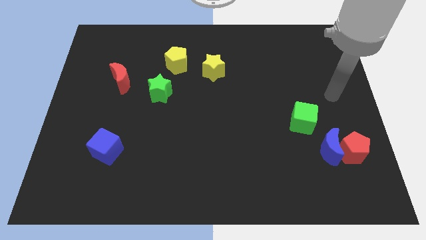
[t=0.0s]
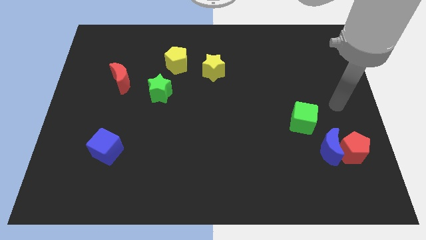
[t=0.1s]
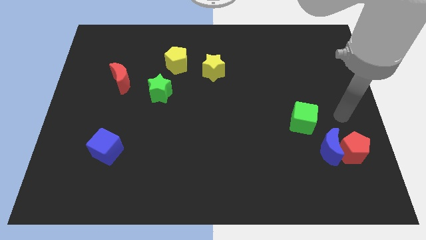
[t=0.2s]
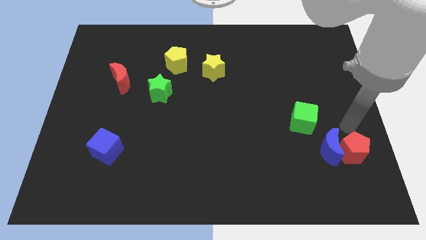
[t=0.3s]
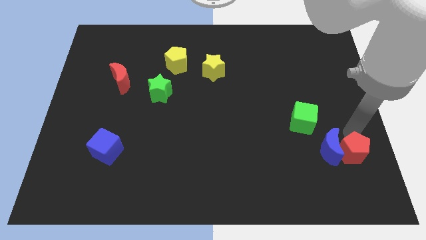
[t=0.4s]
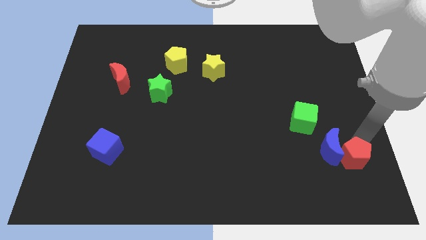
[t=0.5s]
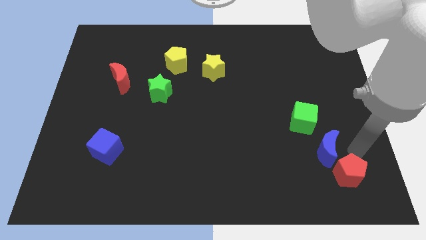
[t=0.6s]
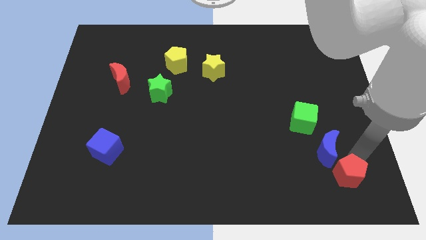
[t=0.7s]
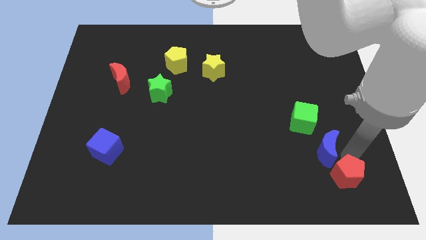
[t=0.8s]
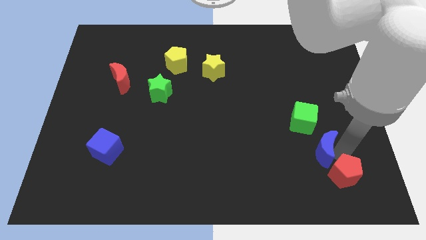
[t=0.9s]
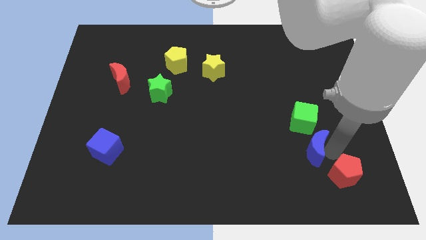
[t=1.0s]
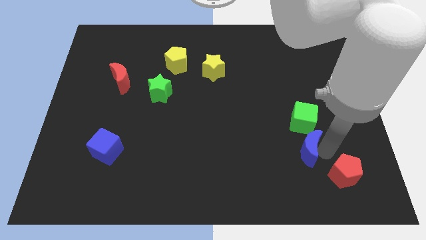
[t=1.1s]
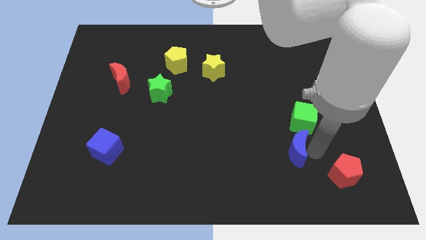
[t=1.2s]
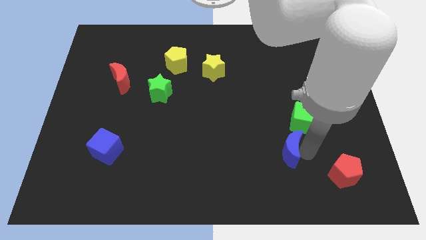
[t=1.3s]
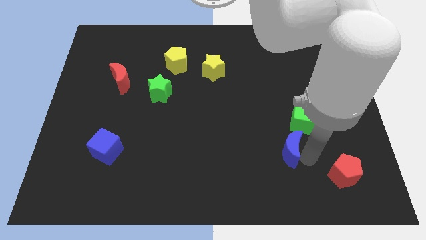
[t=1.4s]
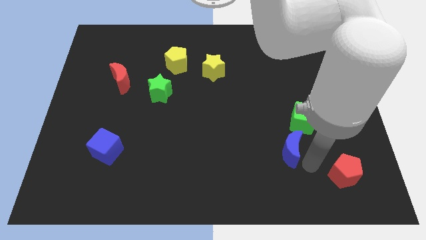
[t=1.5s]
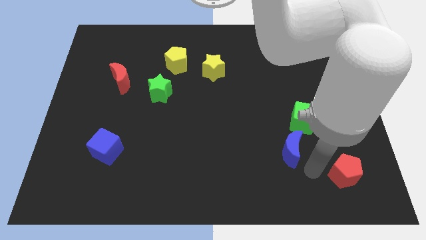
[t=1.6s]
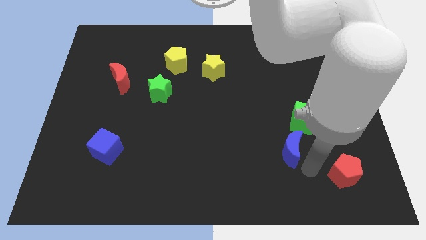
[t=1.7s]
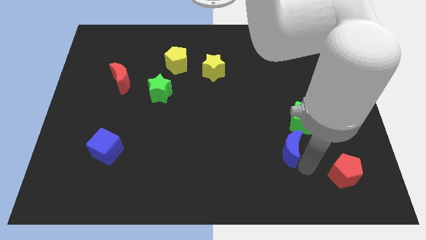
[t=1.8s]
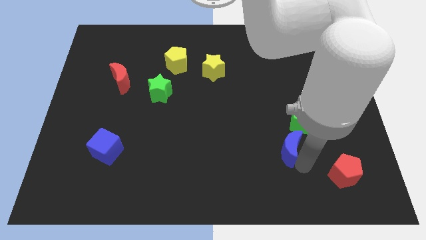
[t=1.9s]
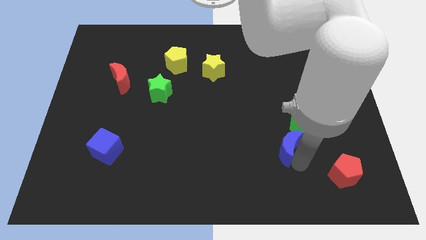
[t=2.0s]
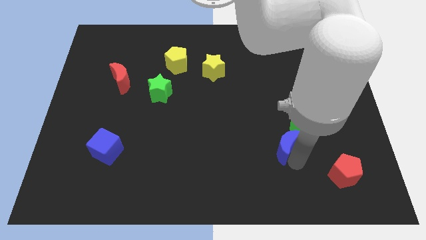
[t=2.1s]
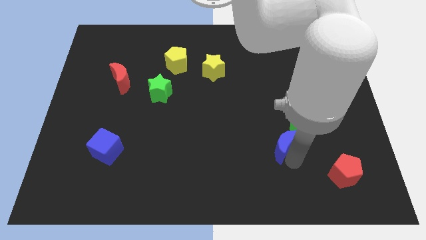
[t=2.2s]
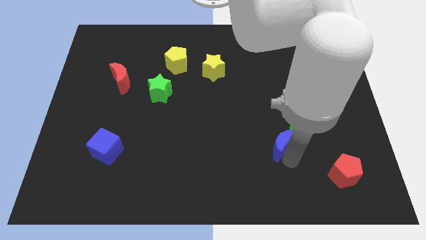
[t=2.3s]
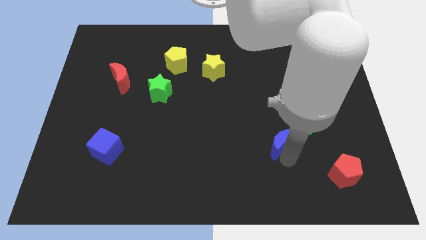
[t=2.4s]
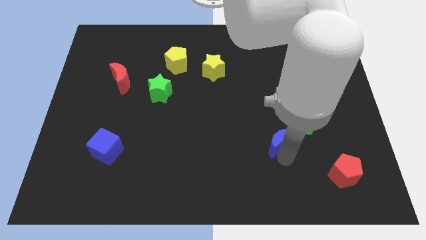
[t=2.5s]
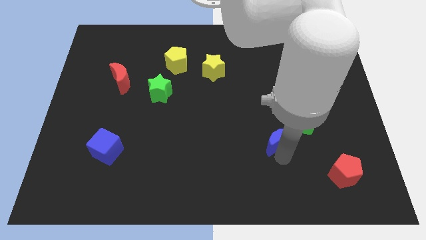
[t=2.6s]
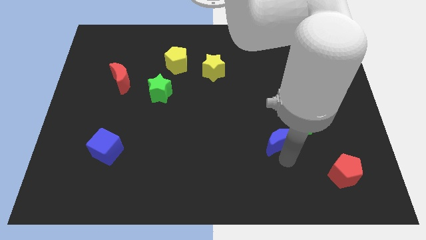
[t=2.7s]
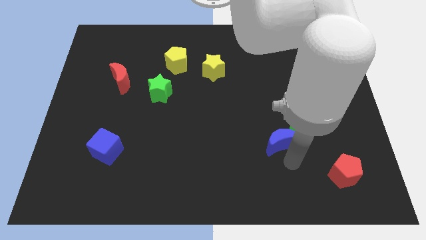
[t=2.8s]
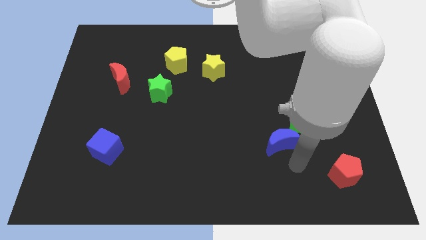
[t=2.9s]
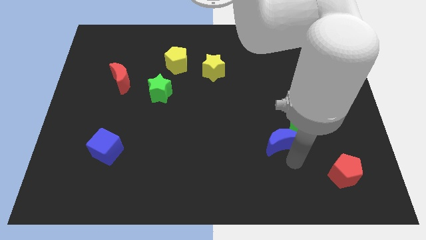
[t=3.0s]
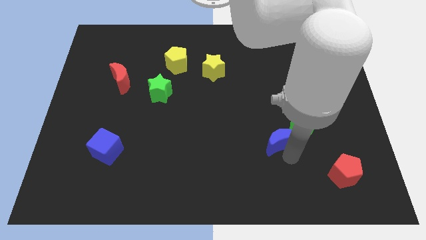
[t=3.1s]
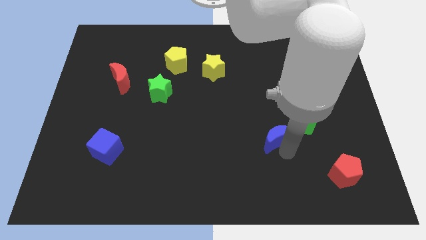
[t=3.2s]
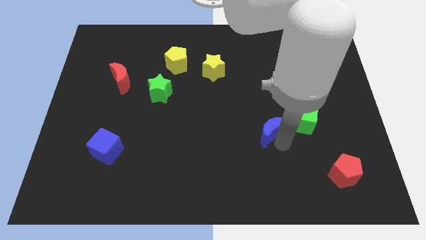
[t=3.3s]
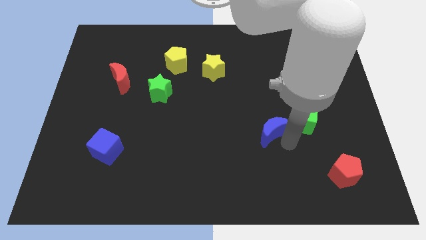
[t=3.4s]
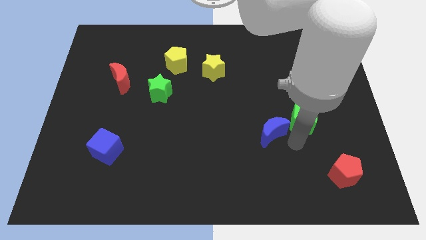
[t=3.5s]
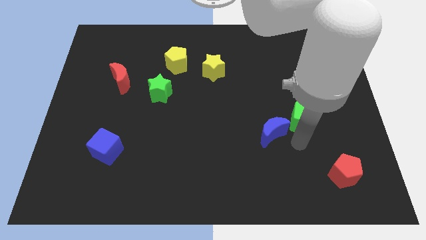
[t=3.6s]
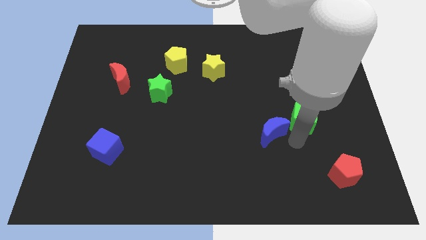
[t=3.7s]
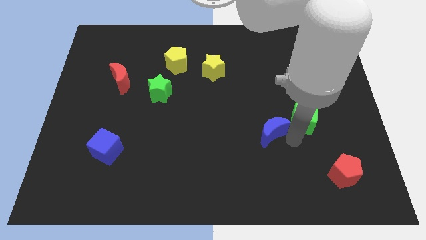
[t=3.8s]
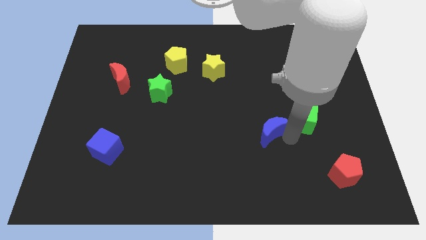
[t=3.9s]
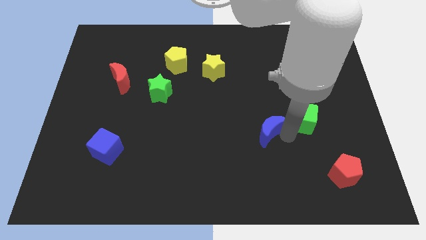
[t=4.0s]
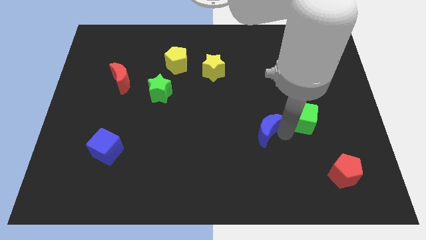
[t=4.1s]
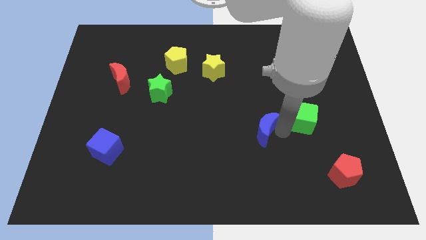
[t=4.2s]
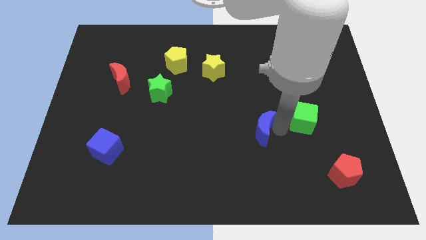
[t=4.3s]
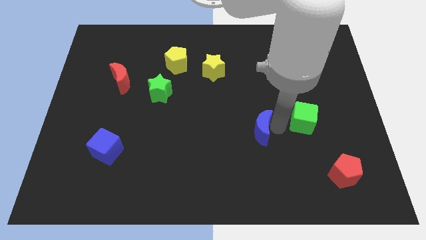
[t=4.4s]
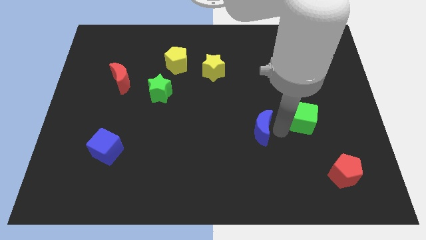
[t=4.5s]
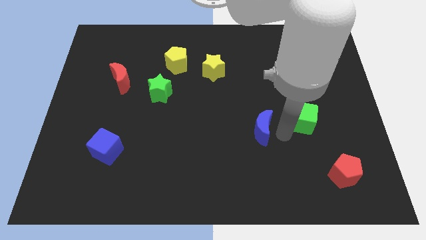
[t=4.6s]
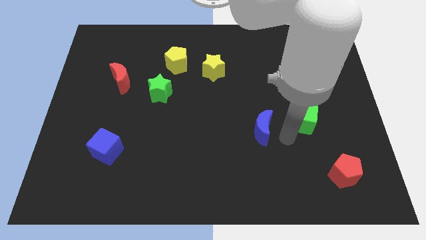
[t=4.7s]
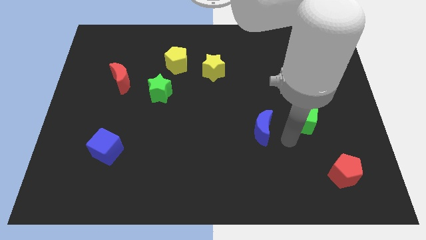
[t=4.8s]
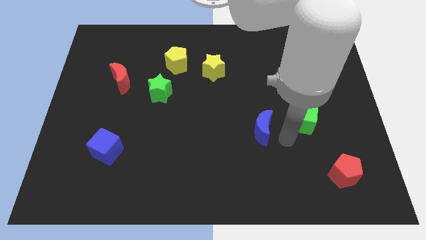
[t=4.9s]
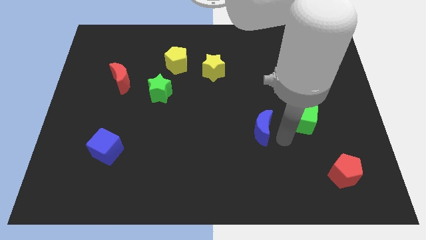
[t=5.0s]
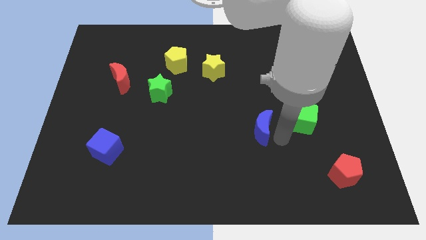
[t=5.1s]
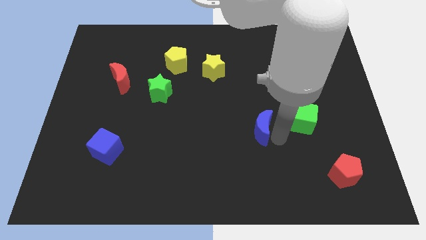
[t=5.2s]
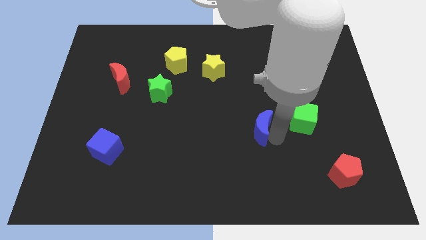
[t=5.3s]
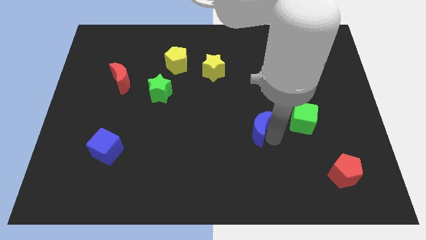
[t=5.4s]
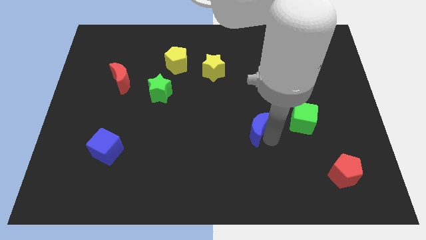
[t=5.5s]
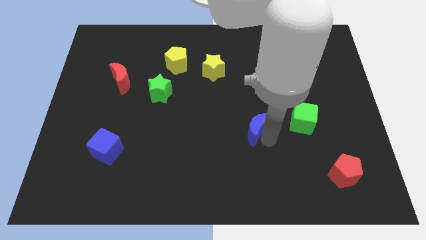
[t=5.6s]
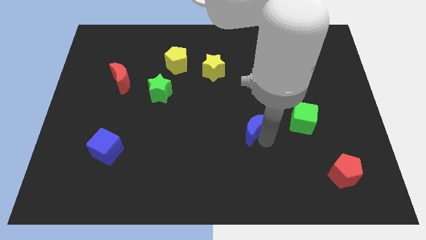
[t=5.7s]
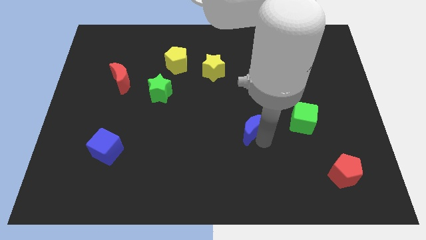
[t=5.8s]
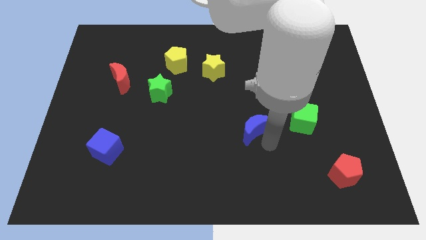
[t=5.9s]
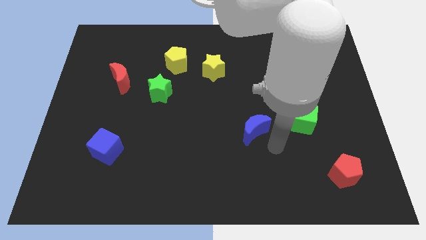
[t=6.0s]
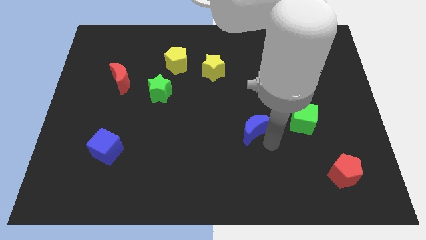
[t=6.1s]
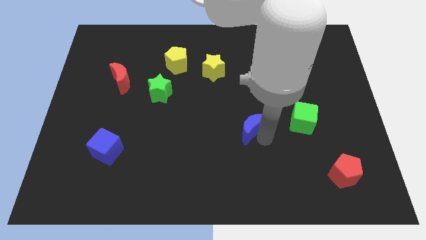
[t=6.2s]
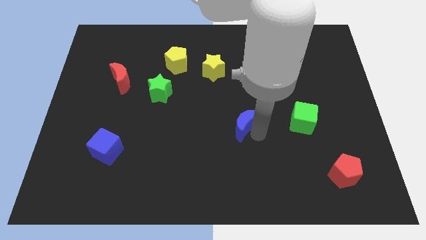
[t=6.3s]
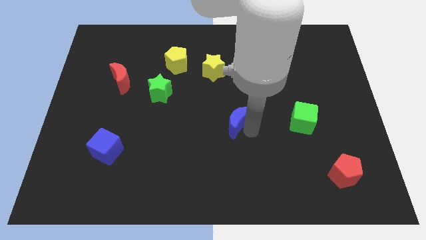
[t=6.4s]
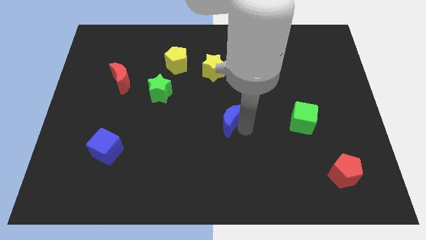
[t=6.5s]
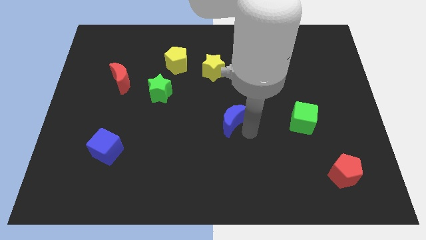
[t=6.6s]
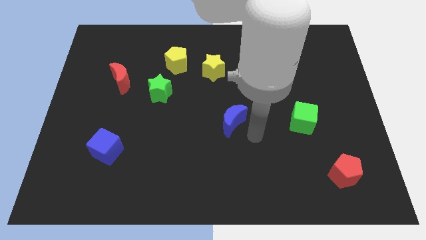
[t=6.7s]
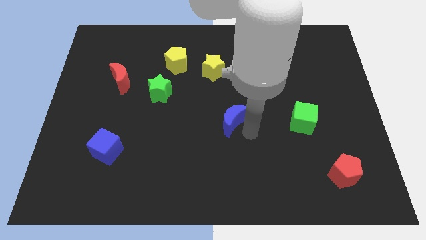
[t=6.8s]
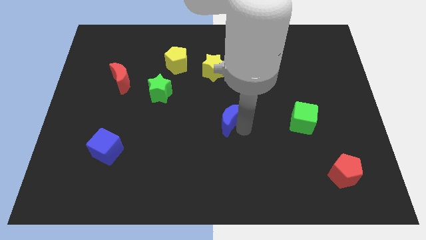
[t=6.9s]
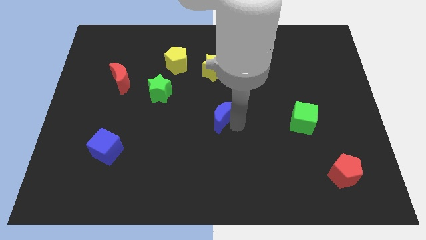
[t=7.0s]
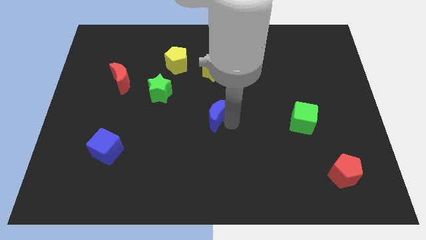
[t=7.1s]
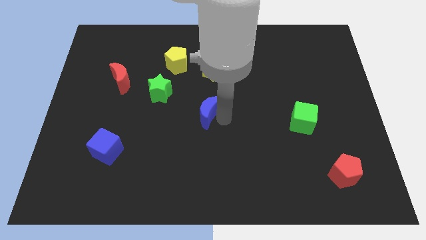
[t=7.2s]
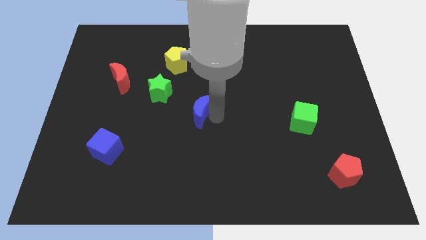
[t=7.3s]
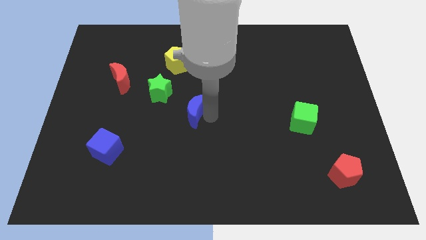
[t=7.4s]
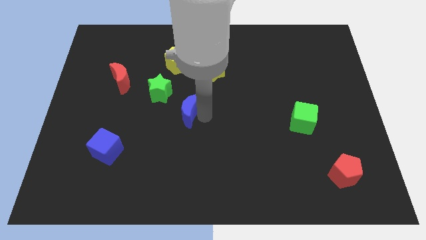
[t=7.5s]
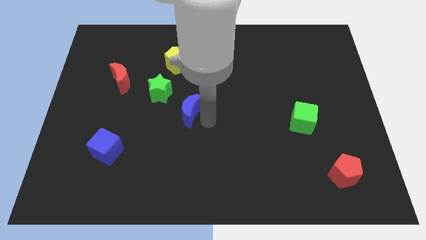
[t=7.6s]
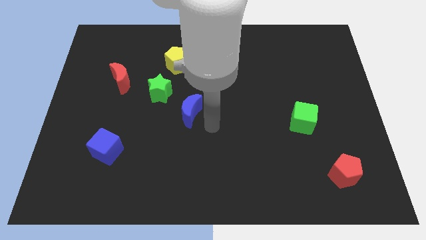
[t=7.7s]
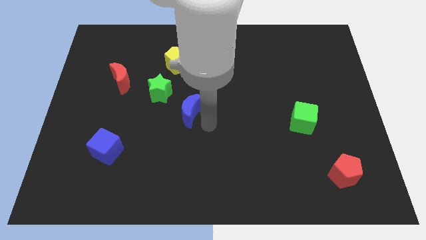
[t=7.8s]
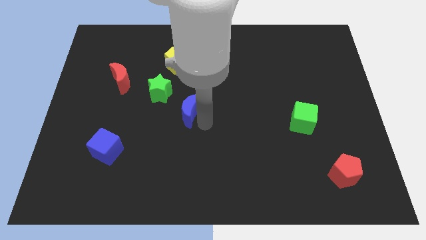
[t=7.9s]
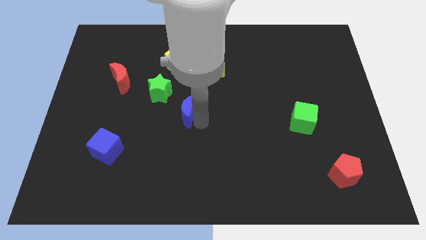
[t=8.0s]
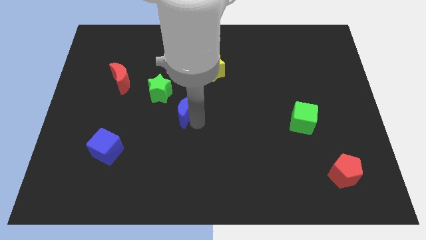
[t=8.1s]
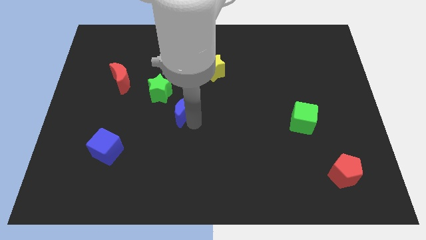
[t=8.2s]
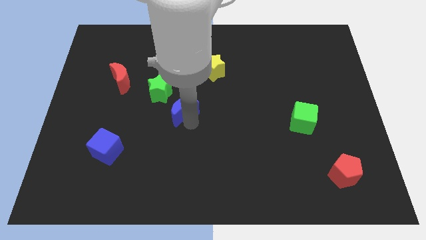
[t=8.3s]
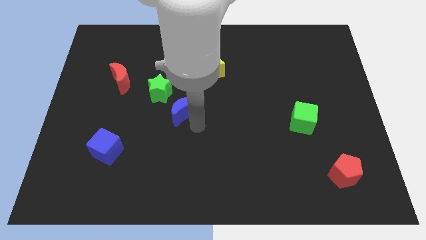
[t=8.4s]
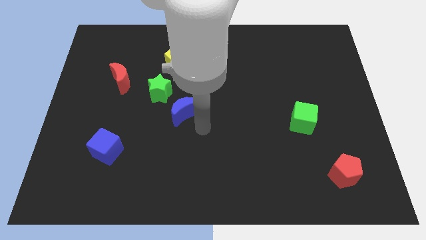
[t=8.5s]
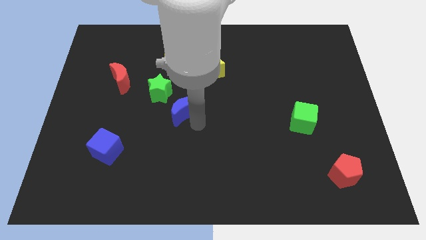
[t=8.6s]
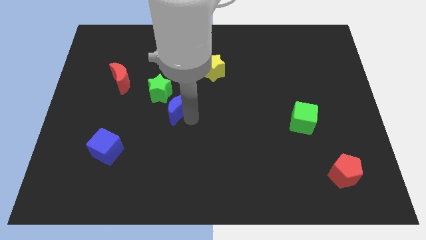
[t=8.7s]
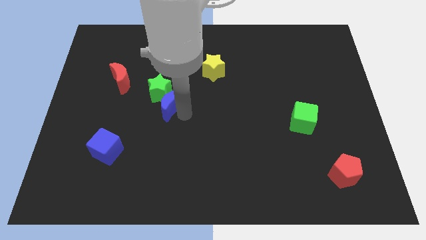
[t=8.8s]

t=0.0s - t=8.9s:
push the blue moon next to the green star
